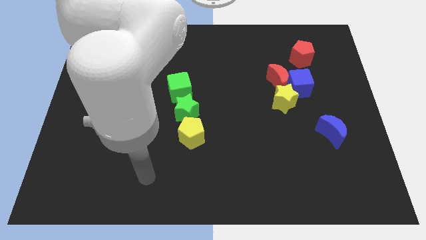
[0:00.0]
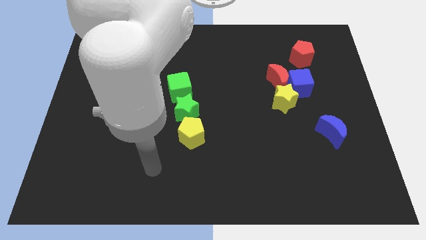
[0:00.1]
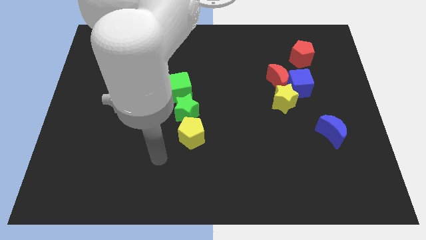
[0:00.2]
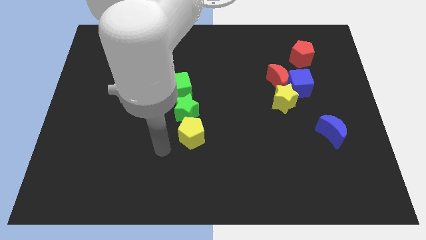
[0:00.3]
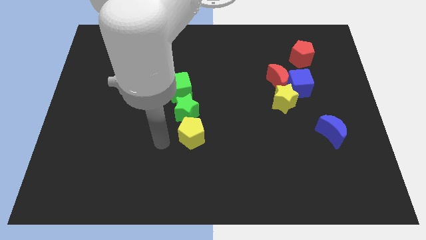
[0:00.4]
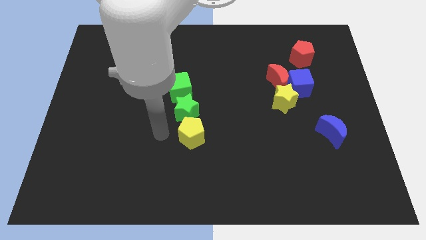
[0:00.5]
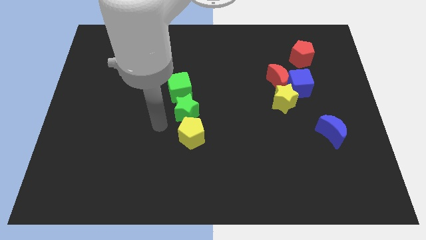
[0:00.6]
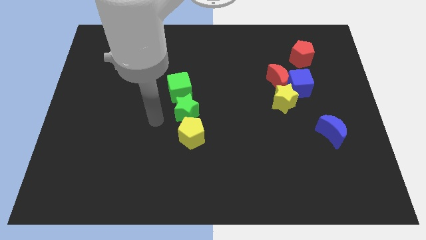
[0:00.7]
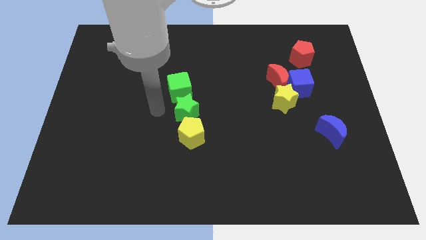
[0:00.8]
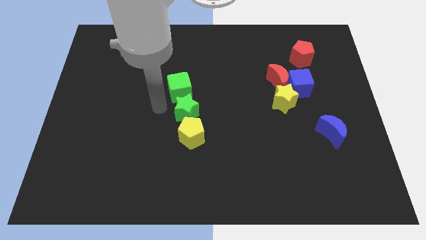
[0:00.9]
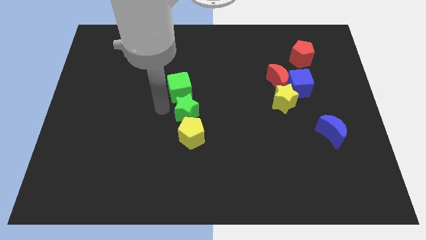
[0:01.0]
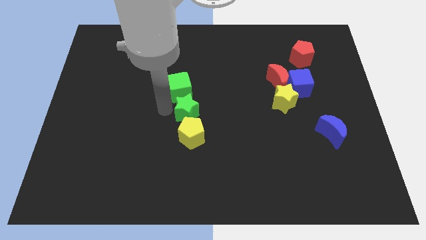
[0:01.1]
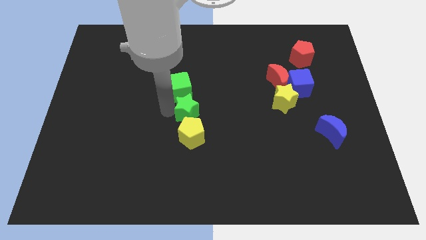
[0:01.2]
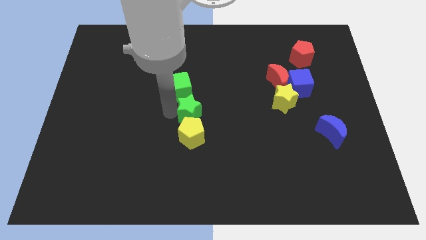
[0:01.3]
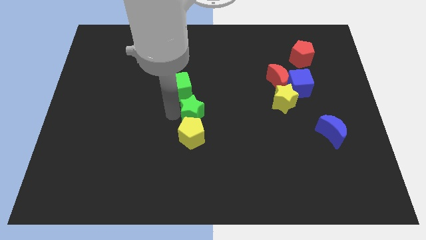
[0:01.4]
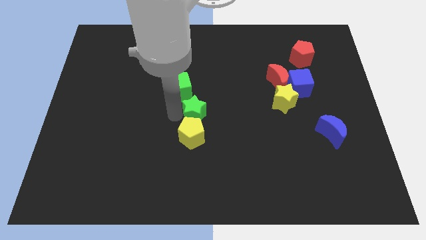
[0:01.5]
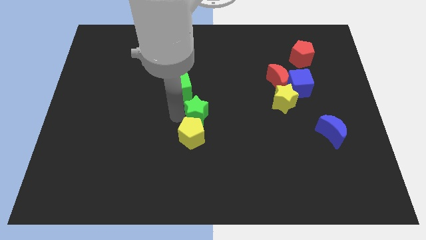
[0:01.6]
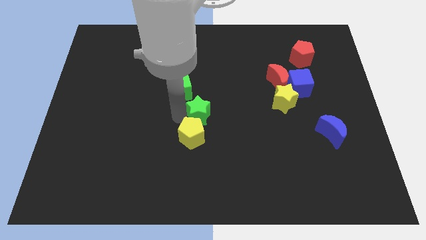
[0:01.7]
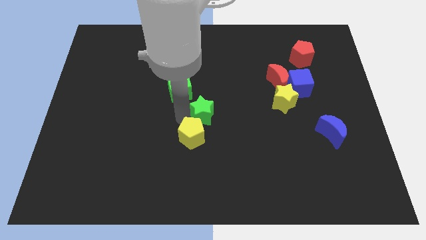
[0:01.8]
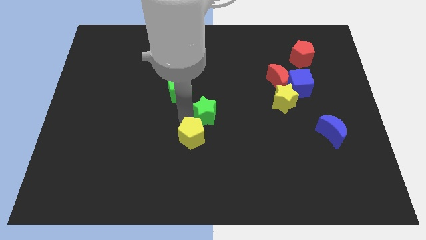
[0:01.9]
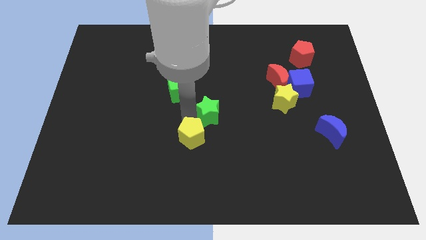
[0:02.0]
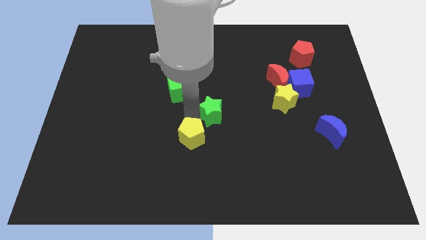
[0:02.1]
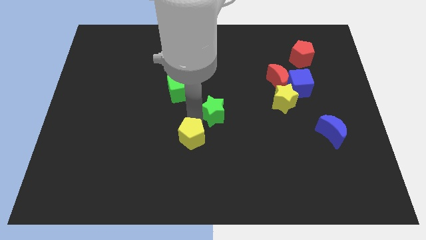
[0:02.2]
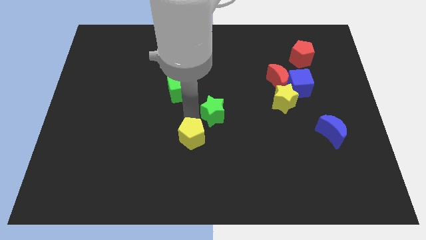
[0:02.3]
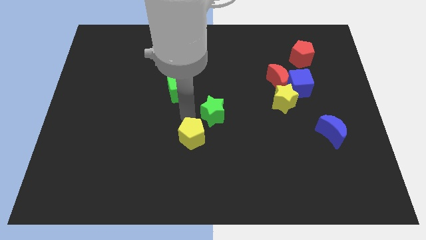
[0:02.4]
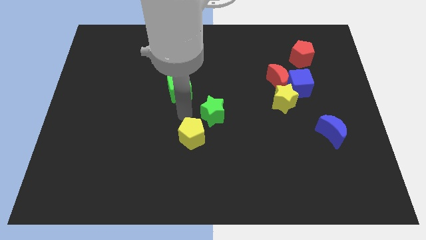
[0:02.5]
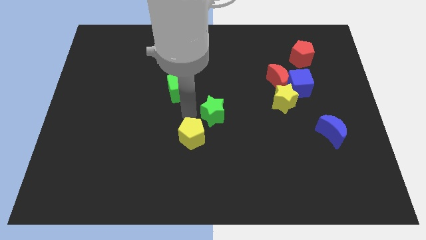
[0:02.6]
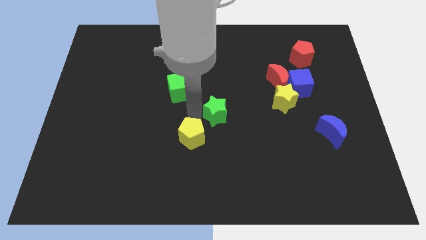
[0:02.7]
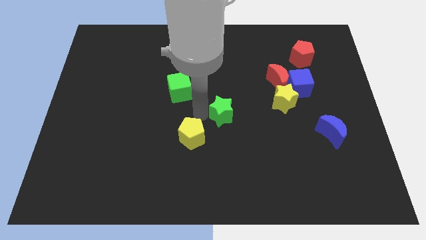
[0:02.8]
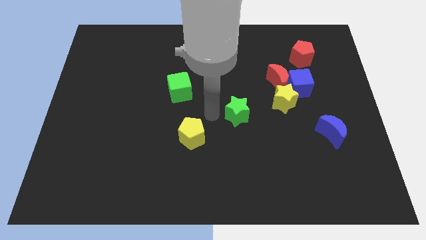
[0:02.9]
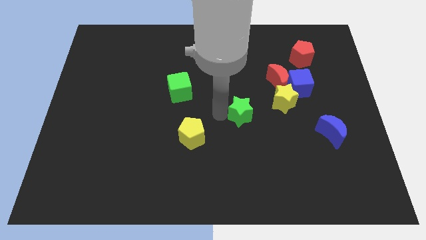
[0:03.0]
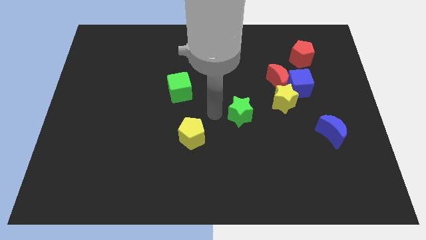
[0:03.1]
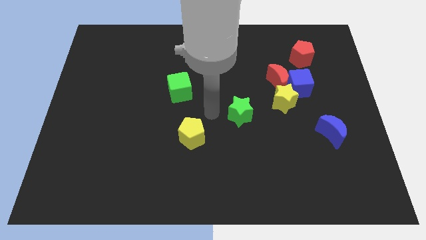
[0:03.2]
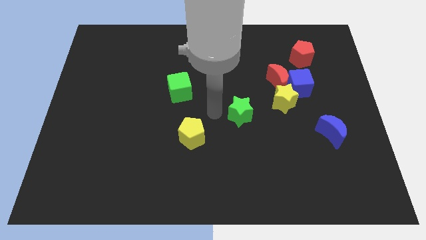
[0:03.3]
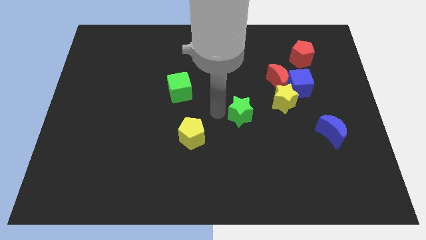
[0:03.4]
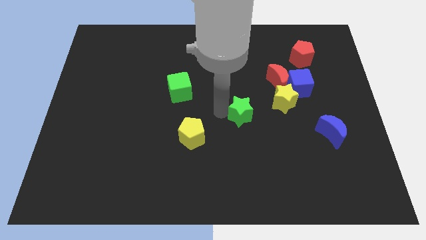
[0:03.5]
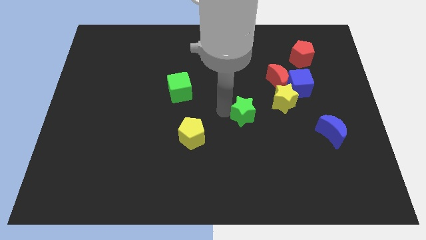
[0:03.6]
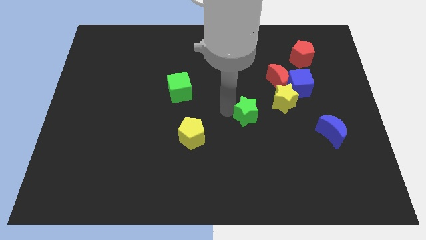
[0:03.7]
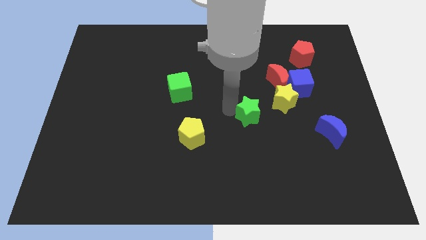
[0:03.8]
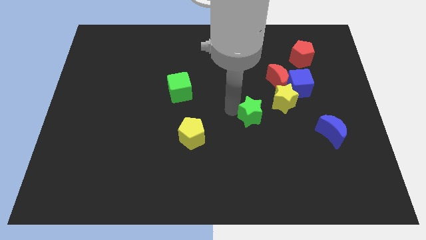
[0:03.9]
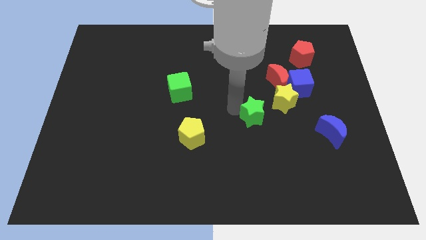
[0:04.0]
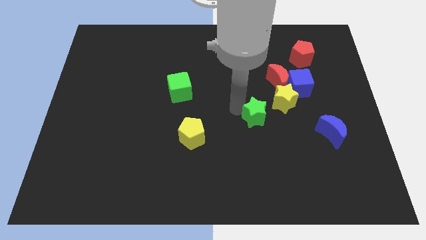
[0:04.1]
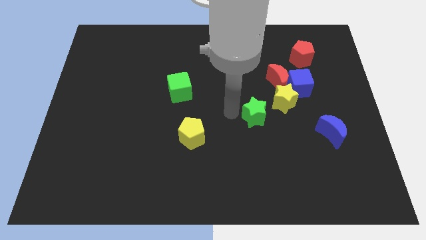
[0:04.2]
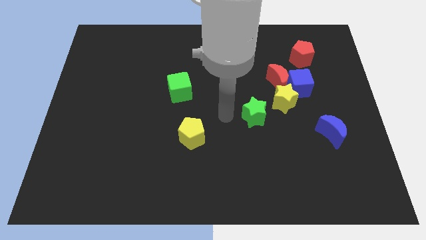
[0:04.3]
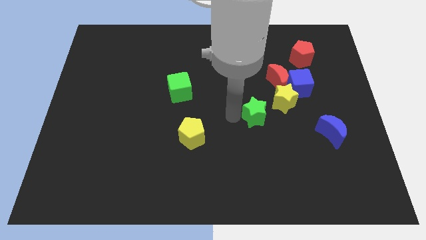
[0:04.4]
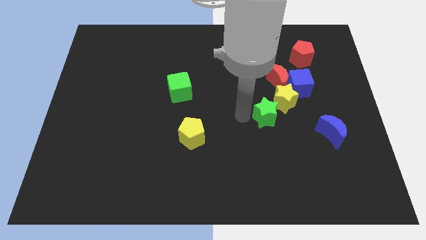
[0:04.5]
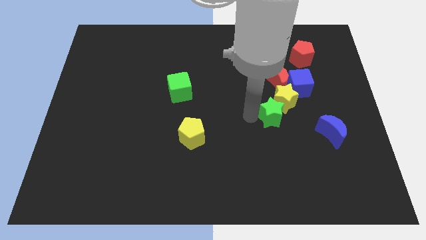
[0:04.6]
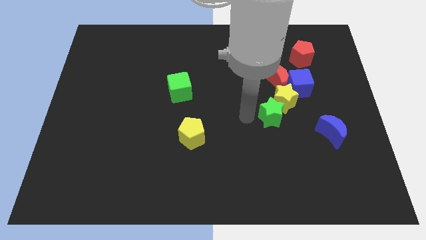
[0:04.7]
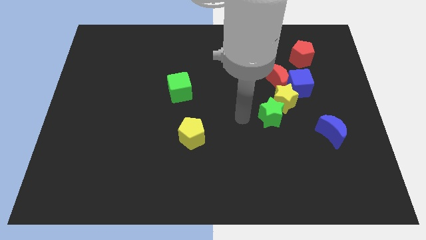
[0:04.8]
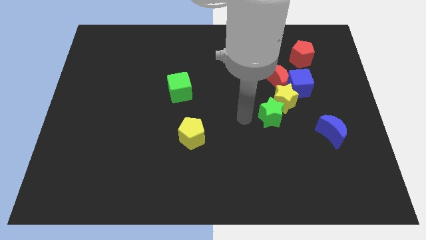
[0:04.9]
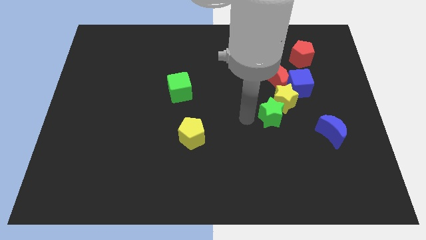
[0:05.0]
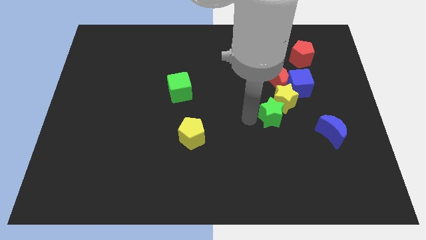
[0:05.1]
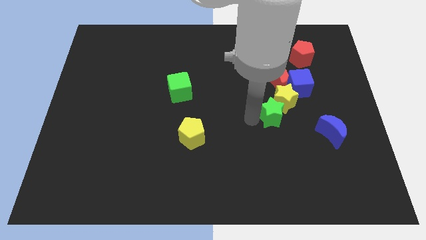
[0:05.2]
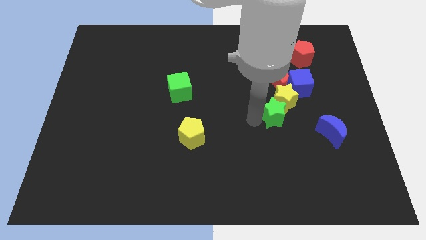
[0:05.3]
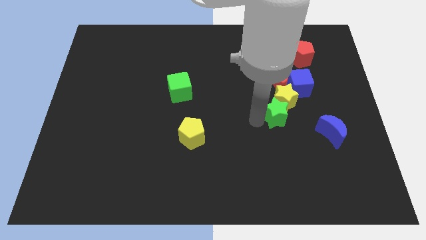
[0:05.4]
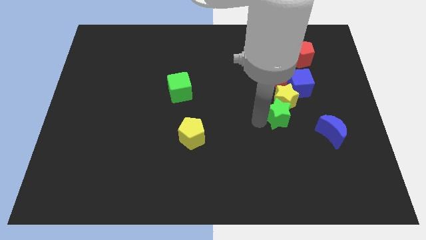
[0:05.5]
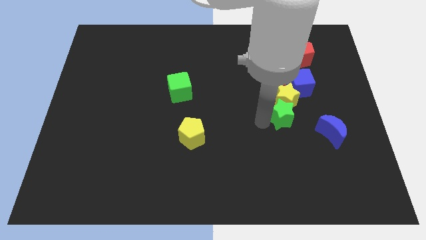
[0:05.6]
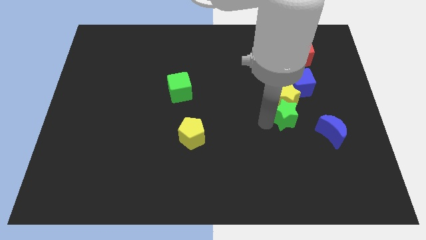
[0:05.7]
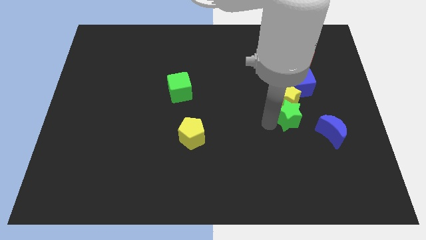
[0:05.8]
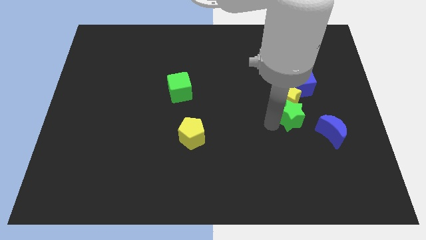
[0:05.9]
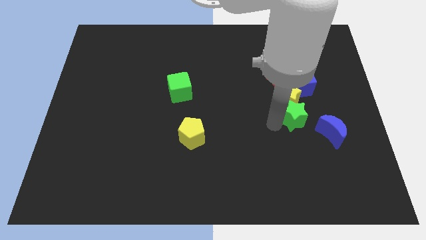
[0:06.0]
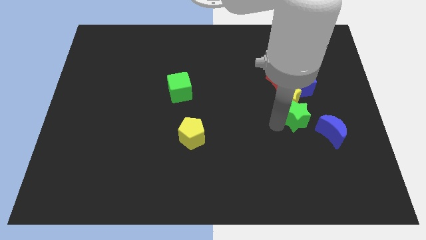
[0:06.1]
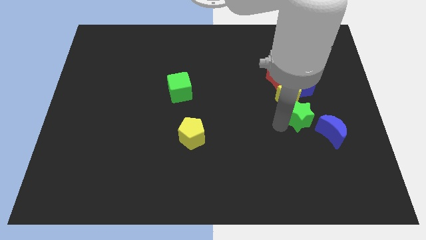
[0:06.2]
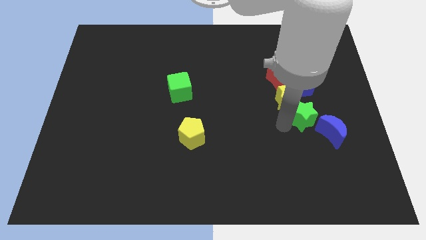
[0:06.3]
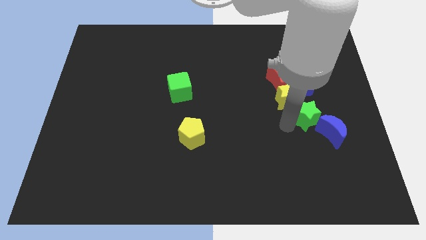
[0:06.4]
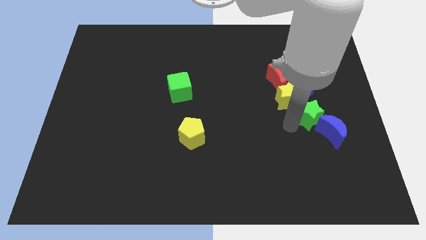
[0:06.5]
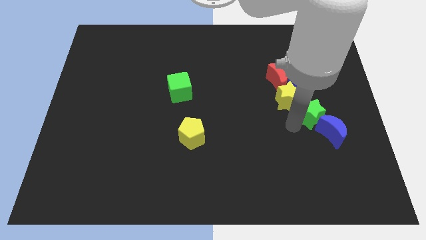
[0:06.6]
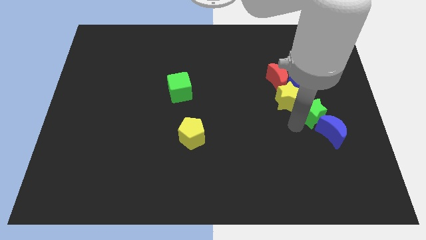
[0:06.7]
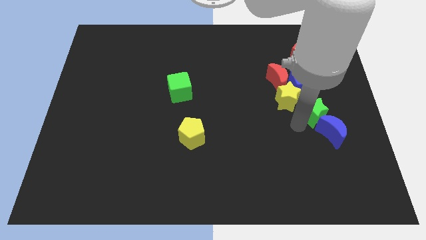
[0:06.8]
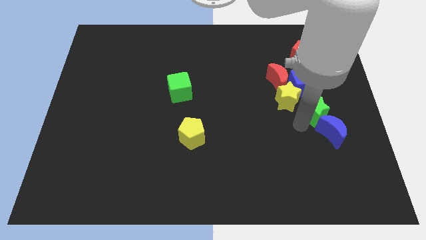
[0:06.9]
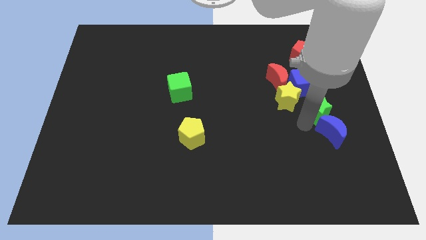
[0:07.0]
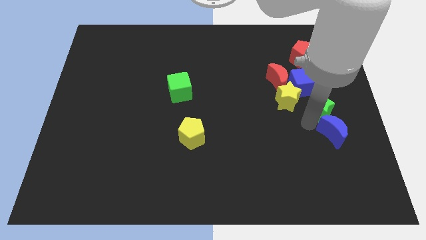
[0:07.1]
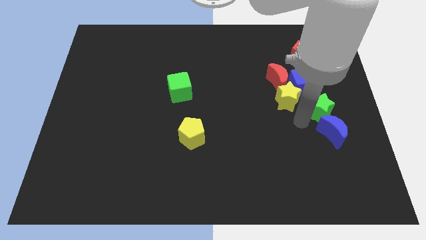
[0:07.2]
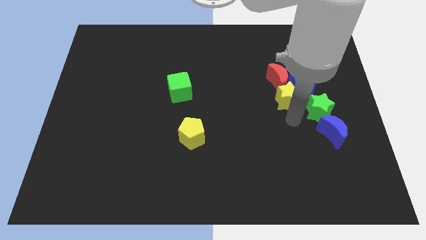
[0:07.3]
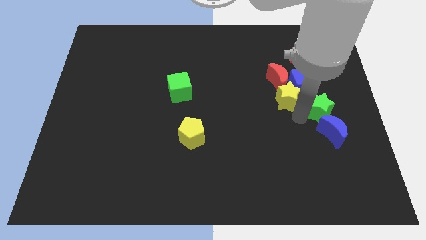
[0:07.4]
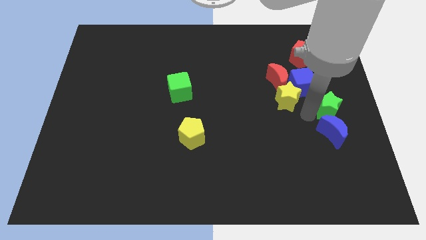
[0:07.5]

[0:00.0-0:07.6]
put the green star to the right side of the board
